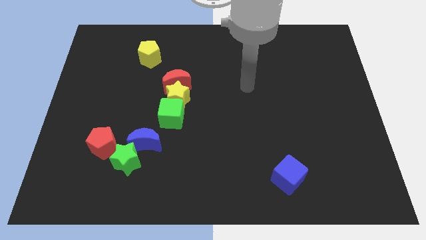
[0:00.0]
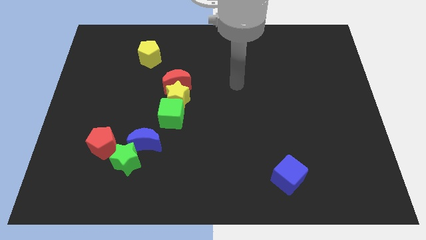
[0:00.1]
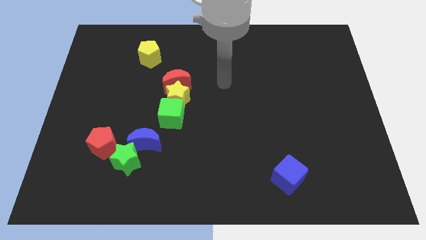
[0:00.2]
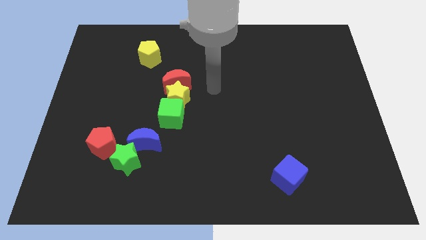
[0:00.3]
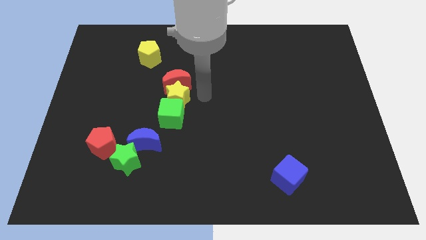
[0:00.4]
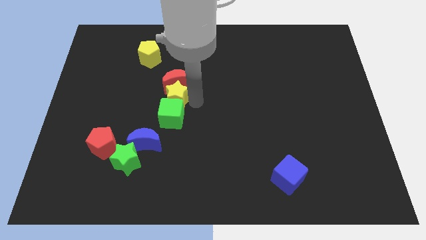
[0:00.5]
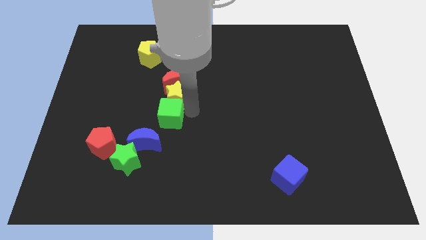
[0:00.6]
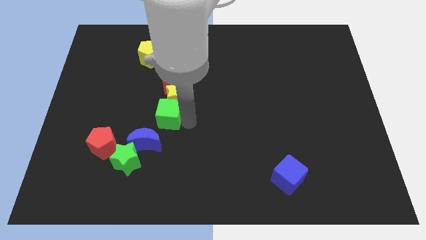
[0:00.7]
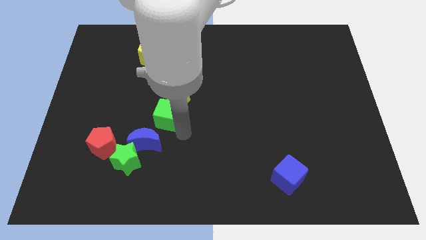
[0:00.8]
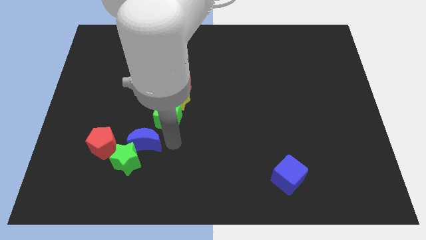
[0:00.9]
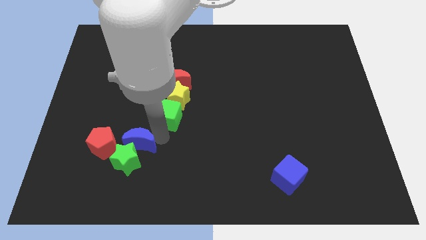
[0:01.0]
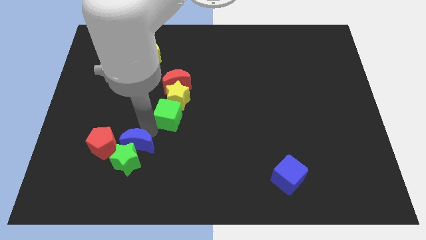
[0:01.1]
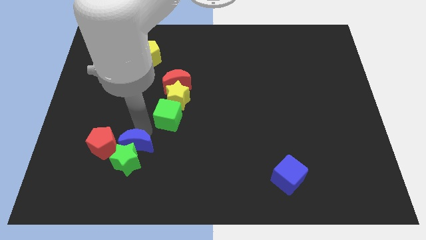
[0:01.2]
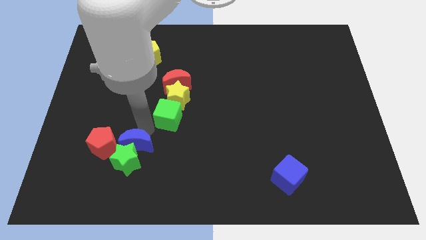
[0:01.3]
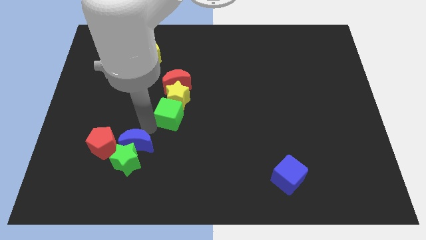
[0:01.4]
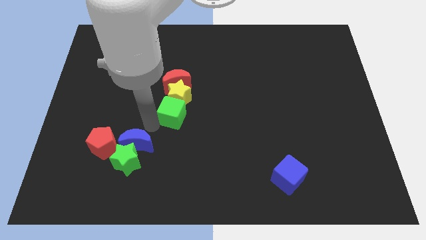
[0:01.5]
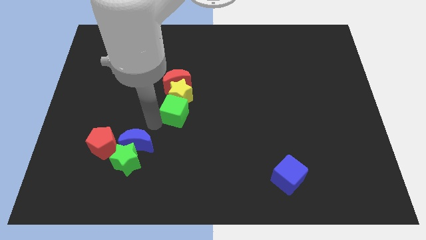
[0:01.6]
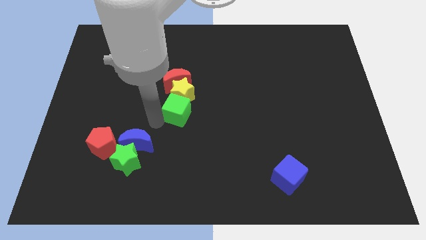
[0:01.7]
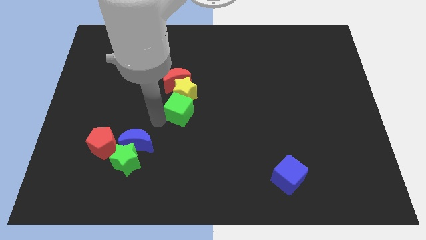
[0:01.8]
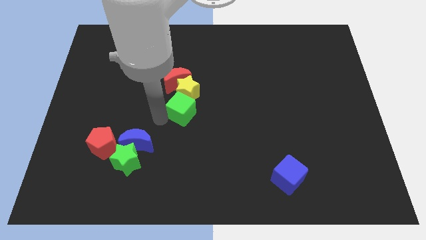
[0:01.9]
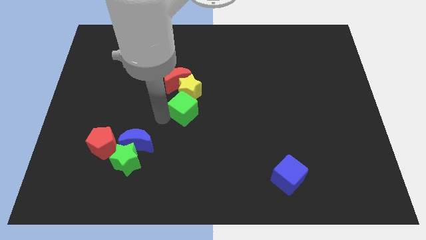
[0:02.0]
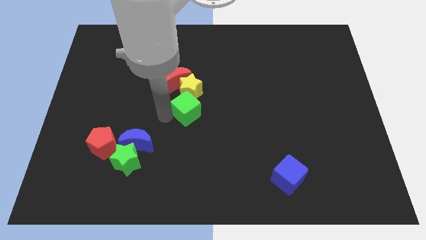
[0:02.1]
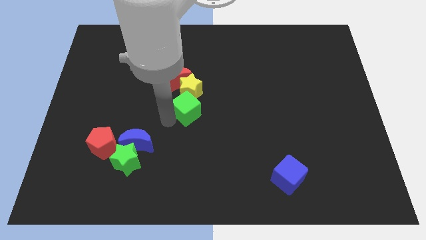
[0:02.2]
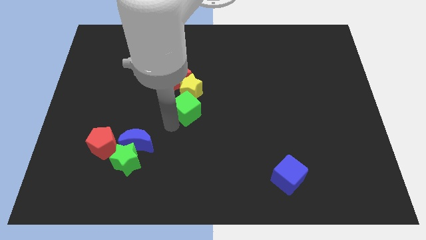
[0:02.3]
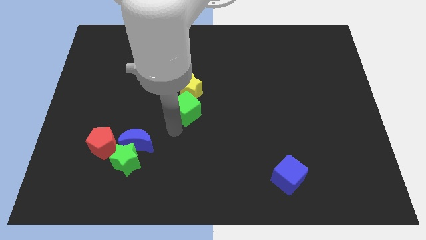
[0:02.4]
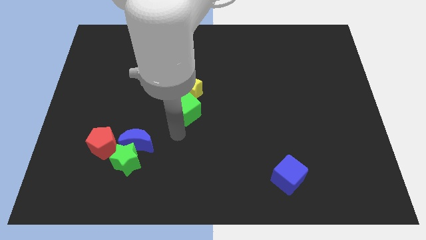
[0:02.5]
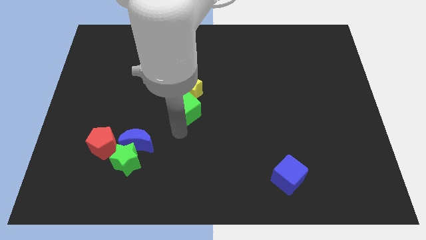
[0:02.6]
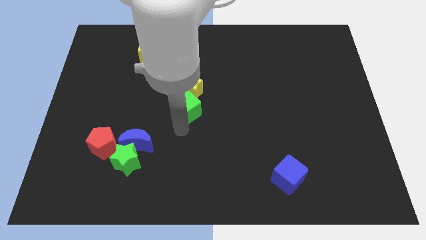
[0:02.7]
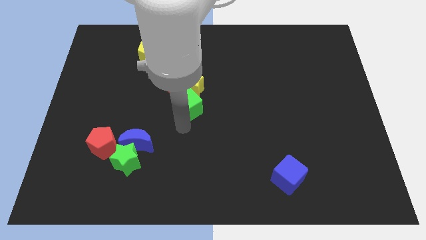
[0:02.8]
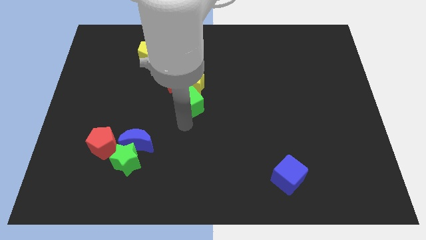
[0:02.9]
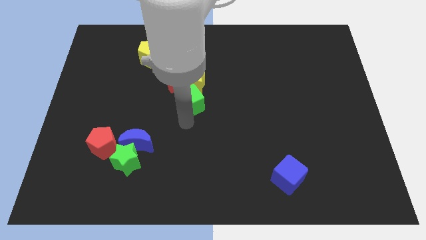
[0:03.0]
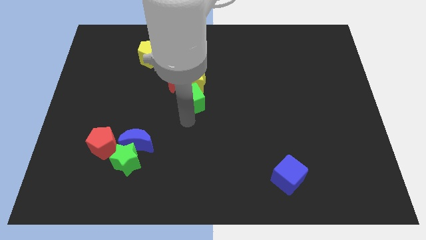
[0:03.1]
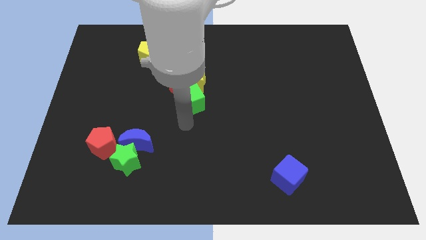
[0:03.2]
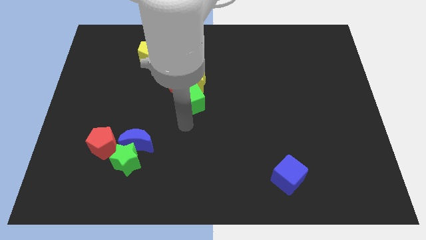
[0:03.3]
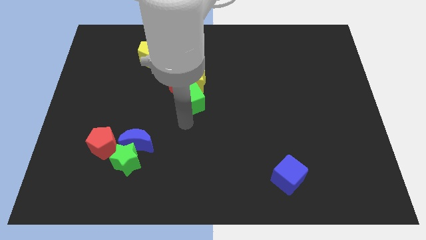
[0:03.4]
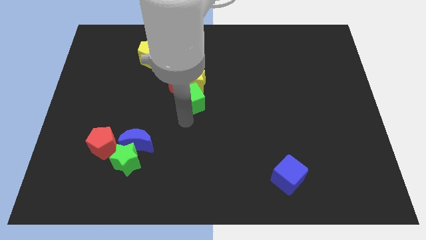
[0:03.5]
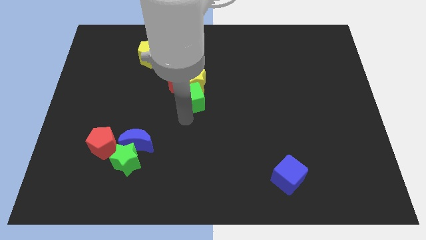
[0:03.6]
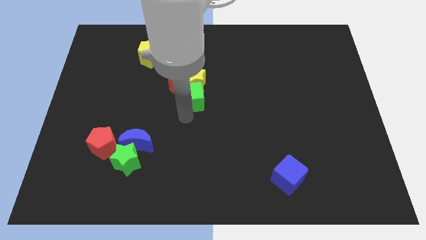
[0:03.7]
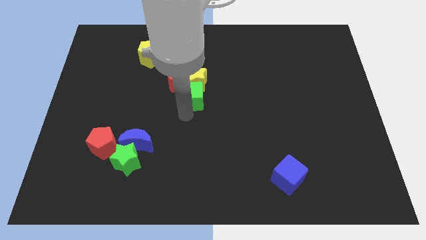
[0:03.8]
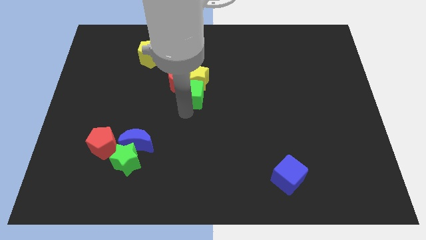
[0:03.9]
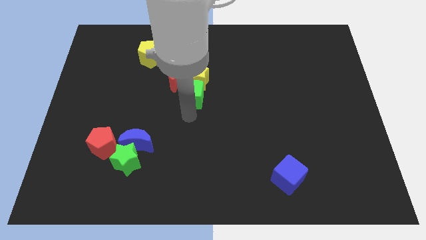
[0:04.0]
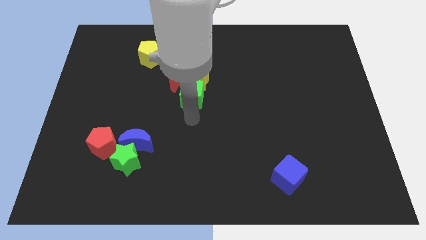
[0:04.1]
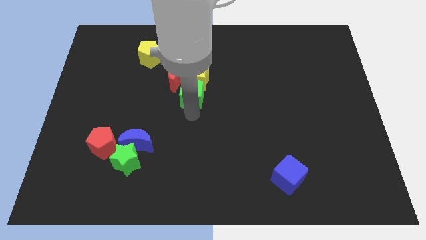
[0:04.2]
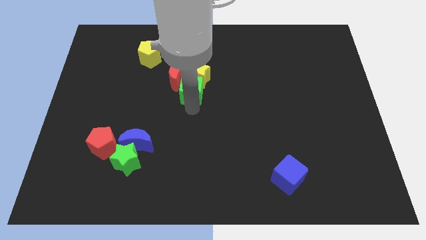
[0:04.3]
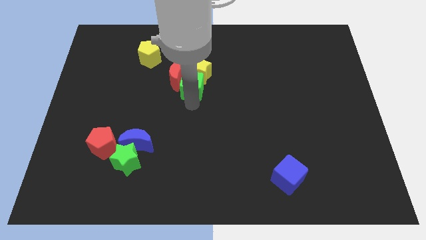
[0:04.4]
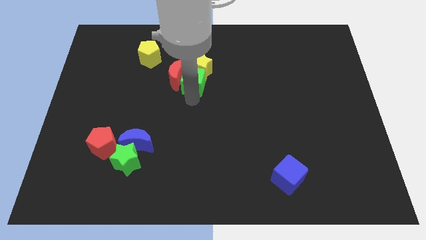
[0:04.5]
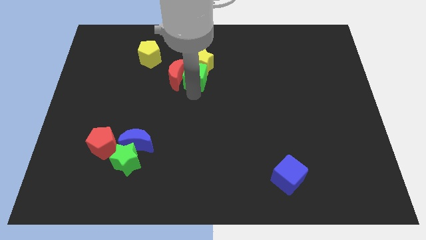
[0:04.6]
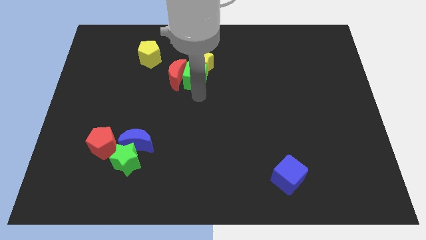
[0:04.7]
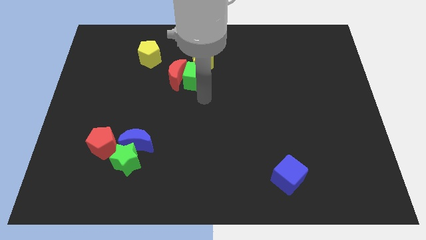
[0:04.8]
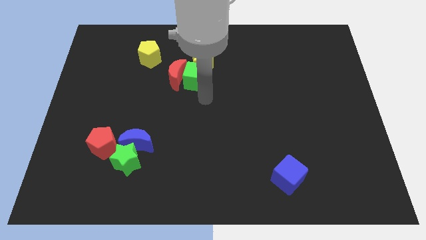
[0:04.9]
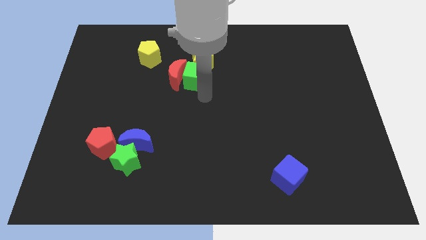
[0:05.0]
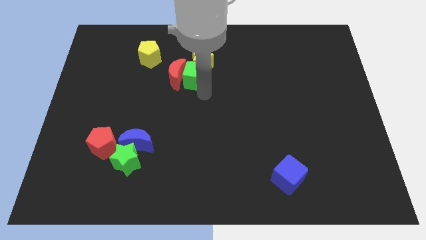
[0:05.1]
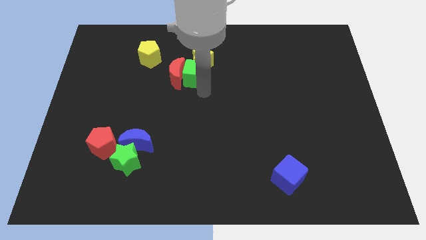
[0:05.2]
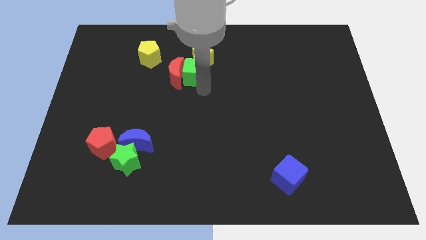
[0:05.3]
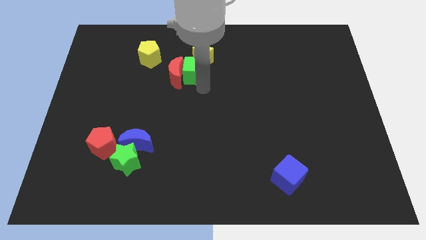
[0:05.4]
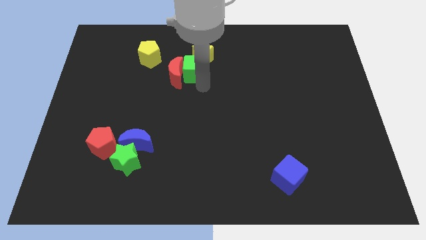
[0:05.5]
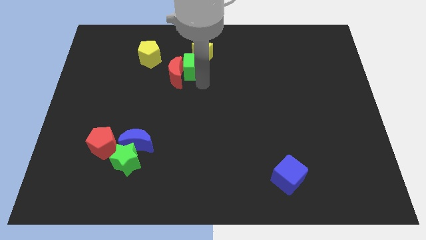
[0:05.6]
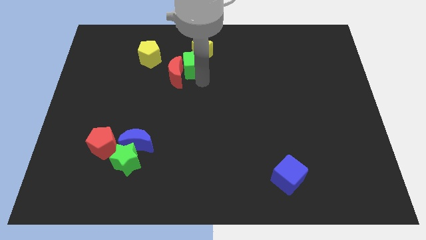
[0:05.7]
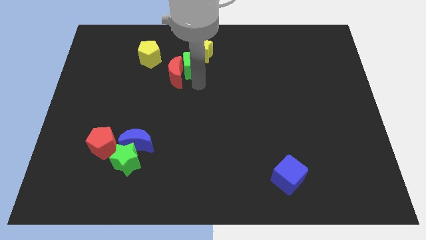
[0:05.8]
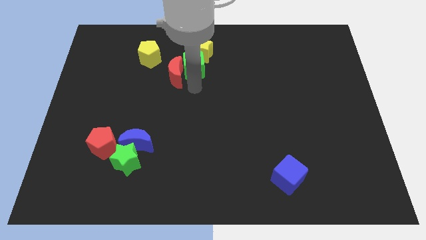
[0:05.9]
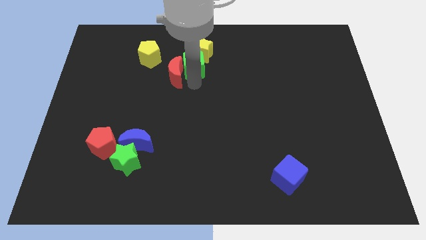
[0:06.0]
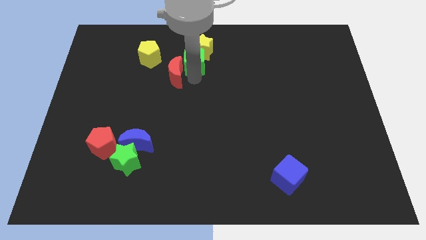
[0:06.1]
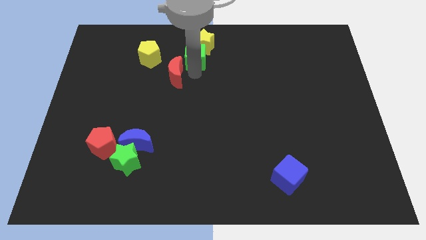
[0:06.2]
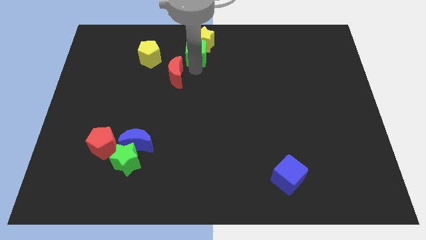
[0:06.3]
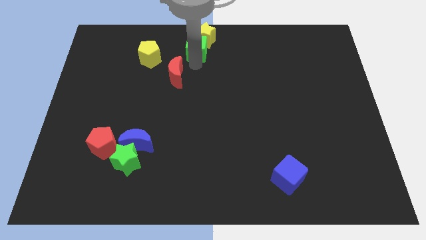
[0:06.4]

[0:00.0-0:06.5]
put the green cube to the towards your base
